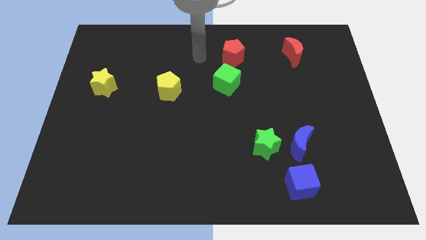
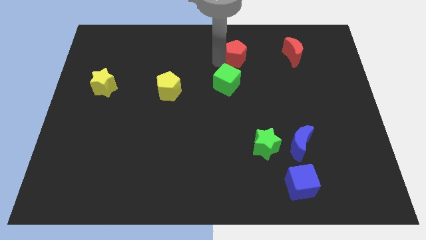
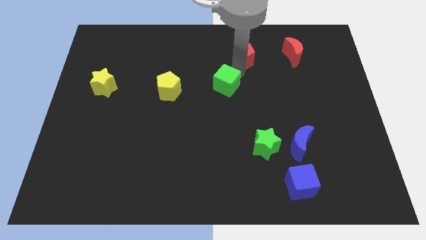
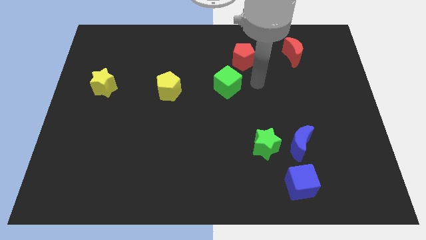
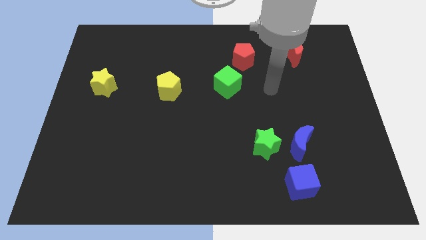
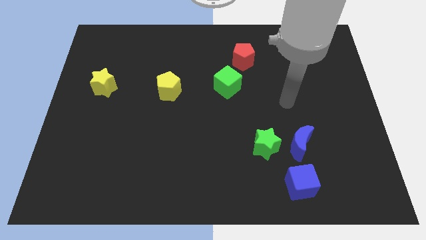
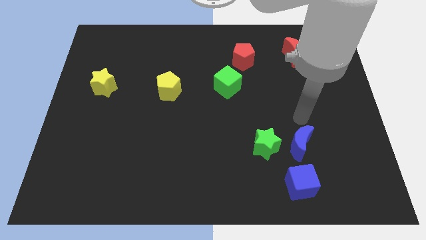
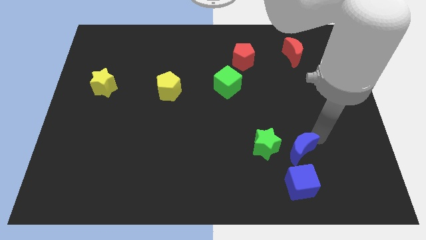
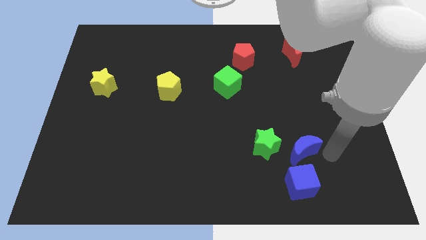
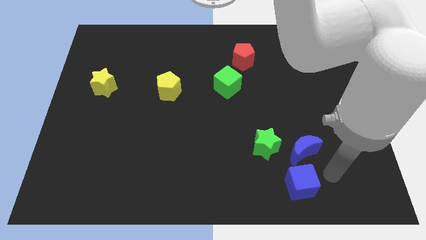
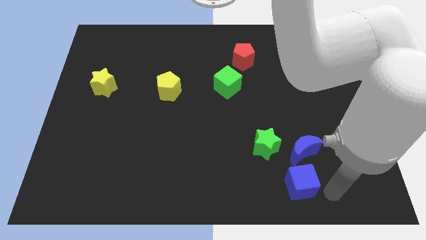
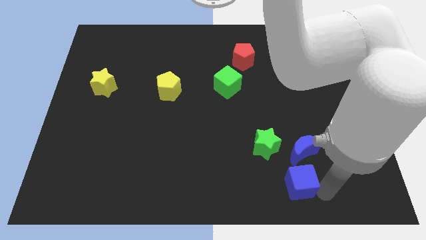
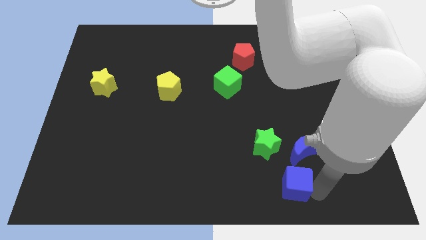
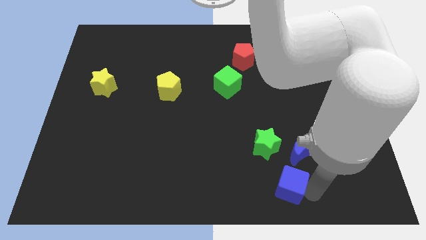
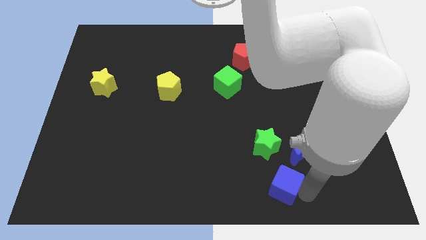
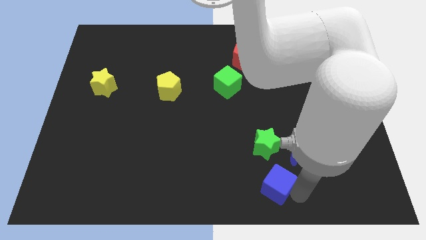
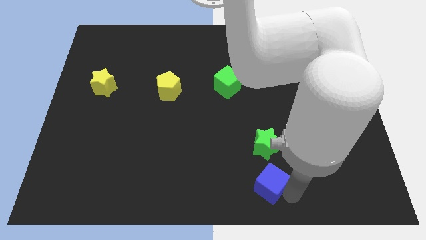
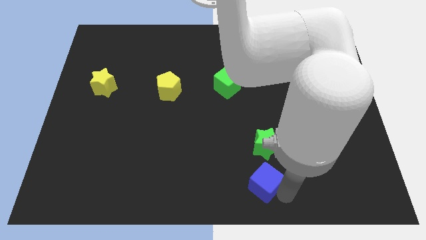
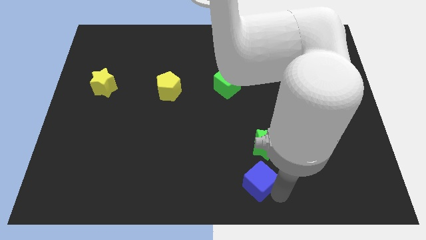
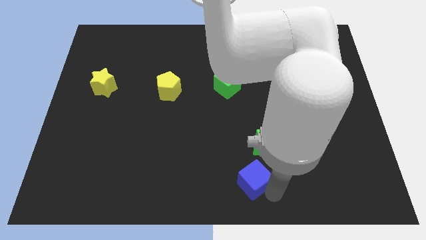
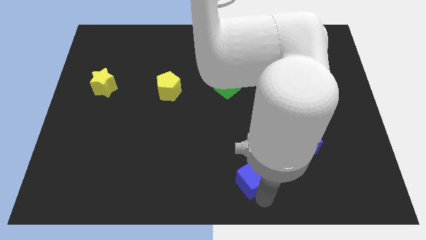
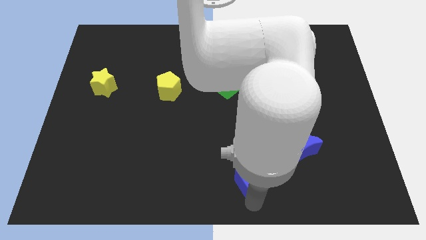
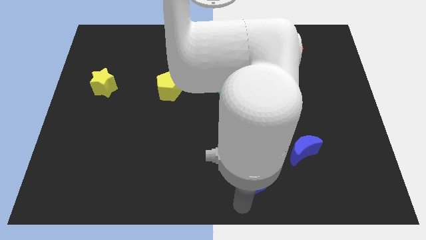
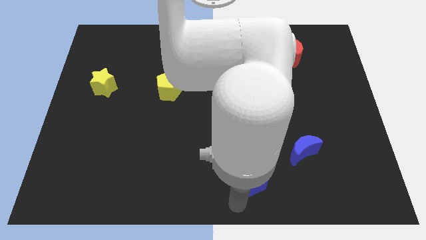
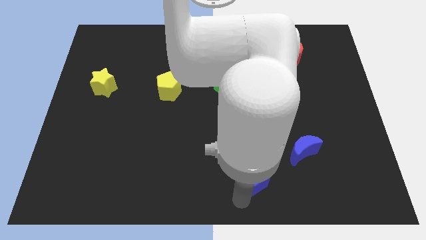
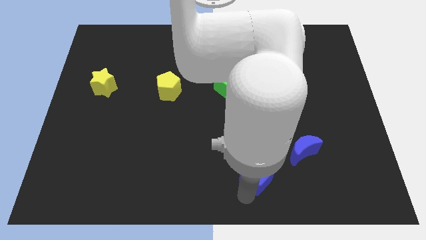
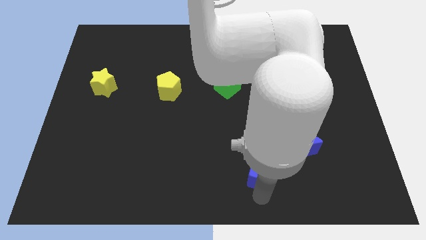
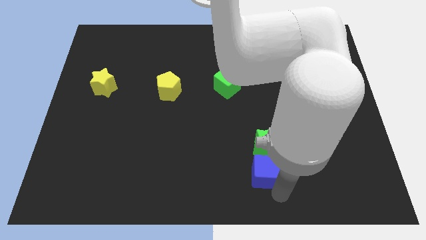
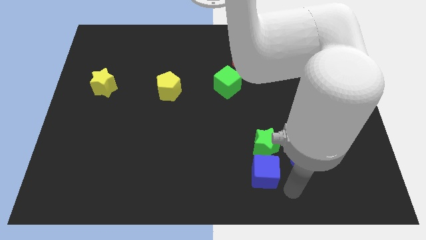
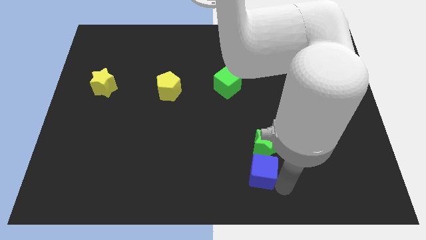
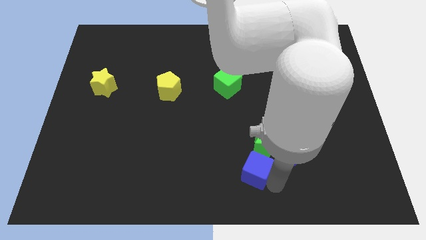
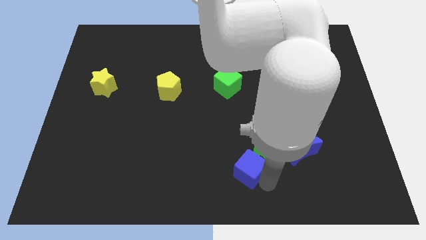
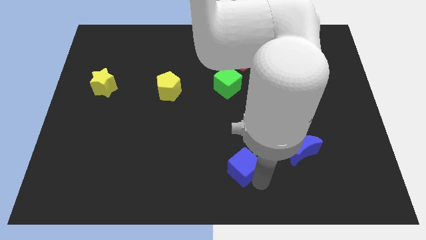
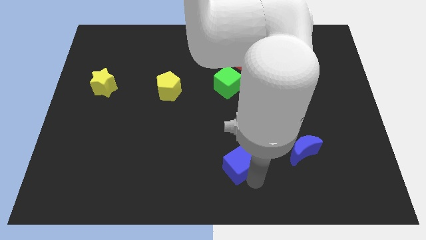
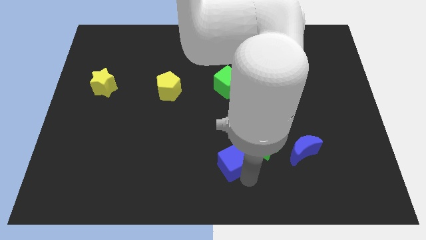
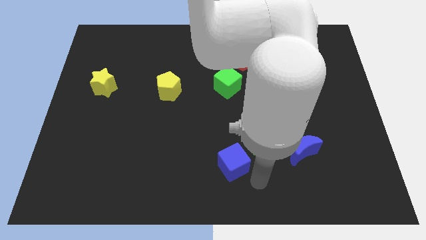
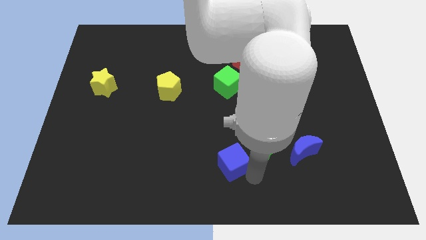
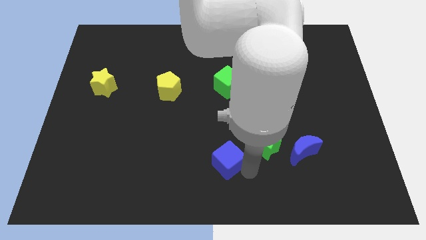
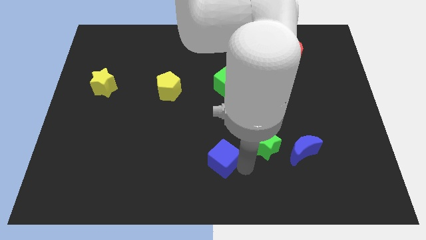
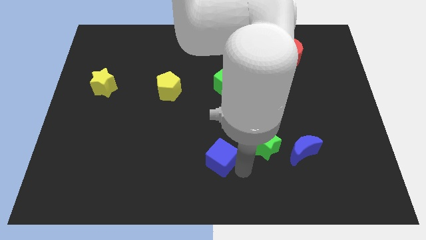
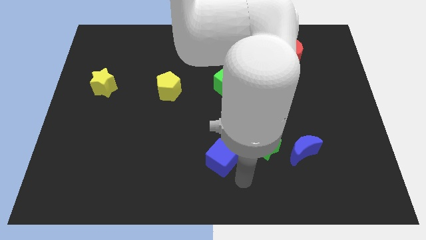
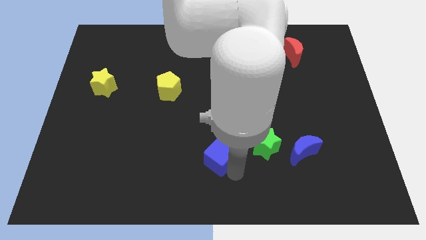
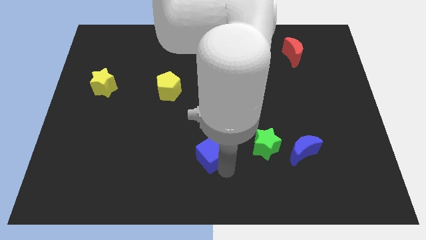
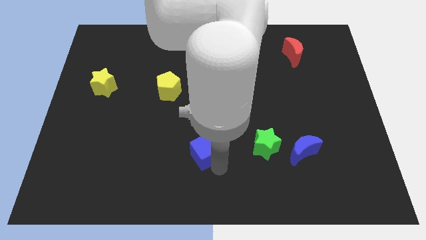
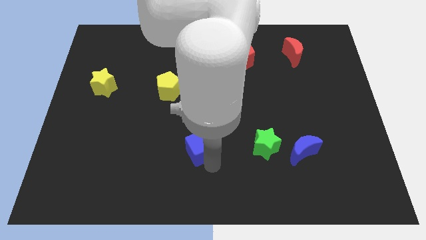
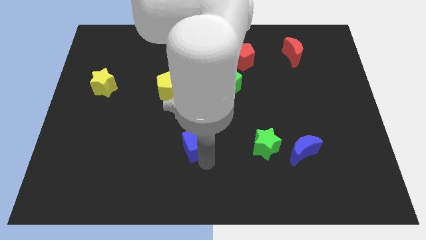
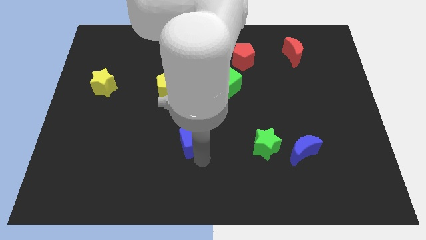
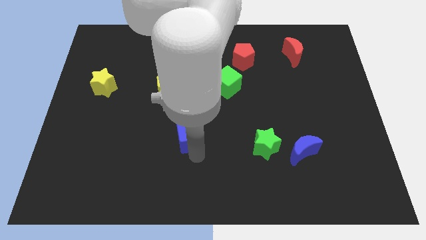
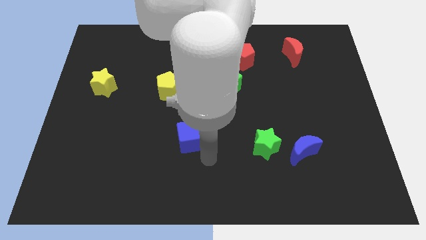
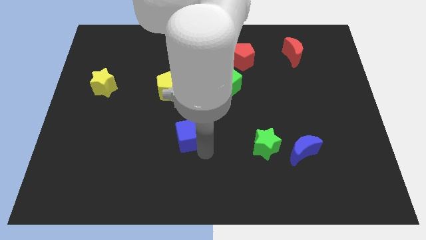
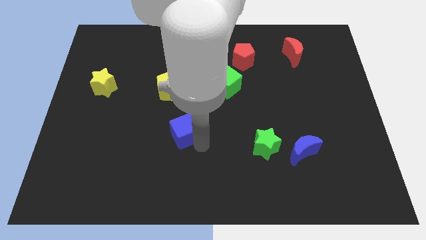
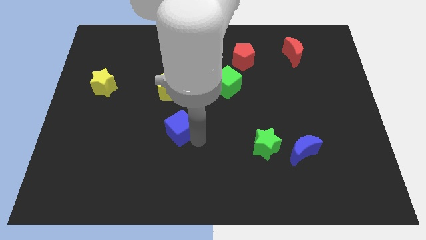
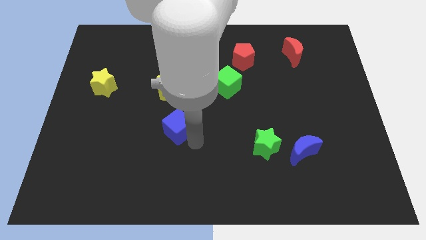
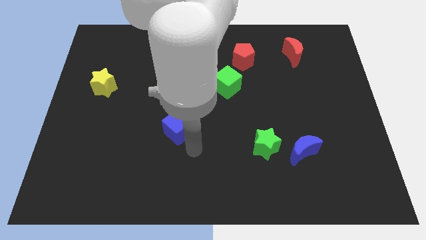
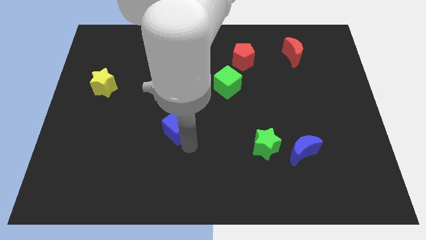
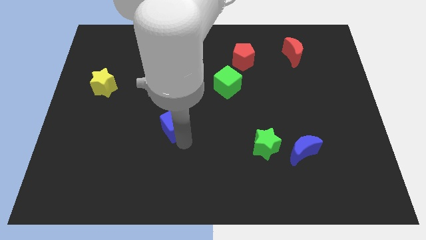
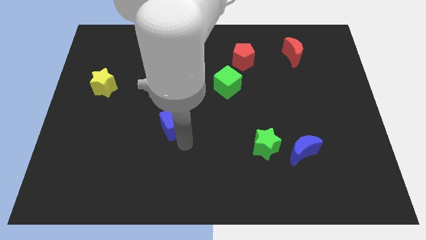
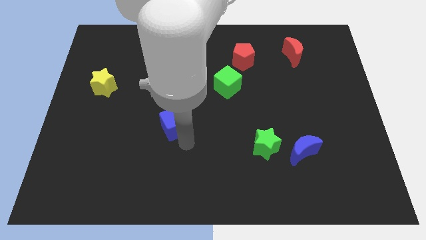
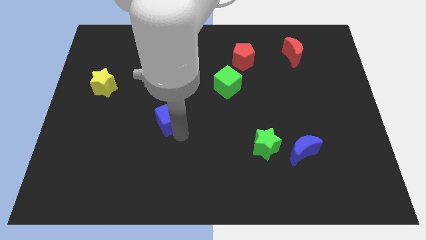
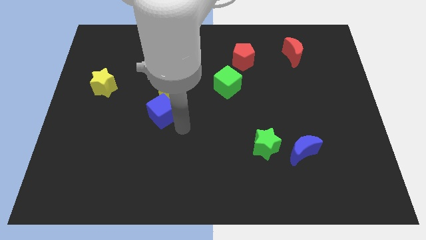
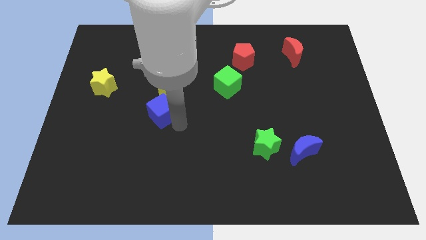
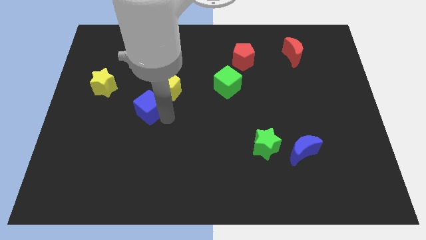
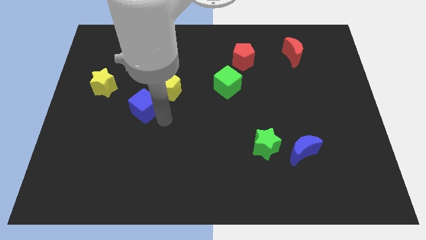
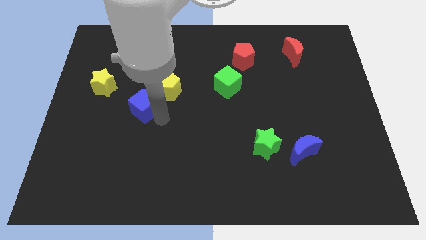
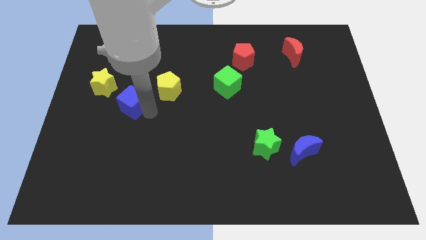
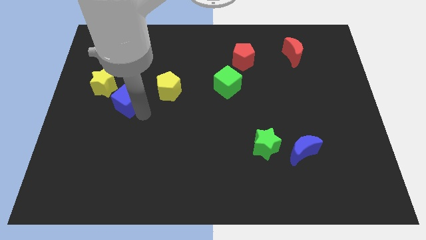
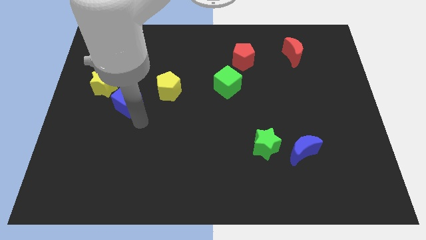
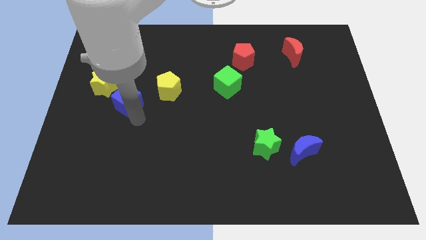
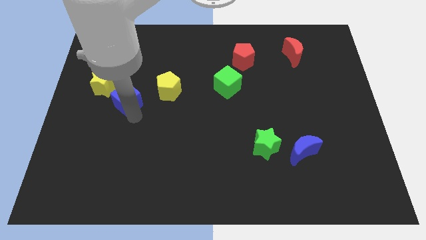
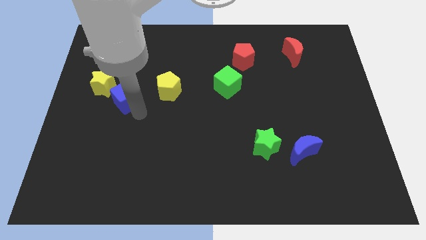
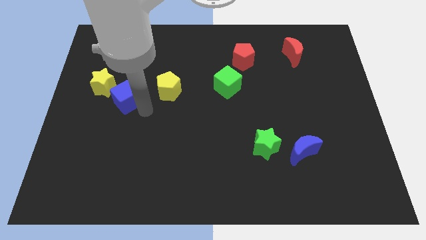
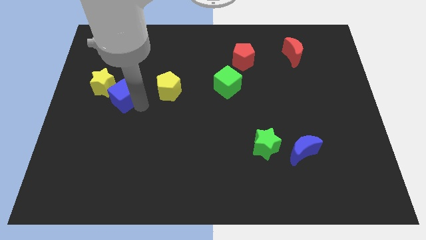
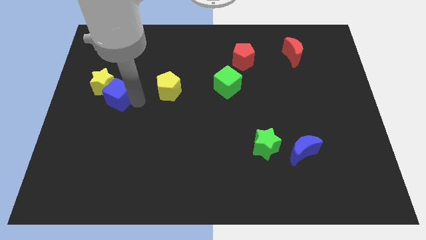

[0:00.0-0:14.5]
slide the blue cube to the yellow star
